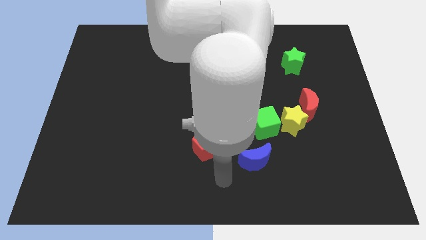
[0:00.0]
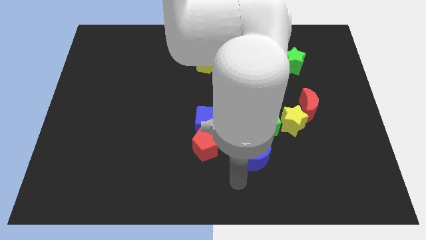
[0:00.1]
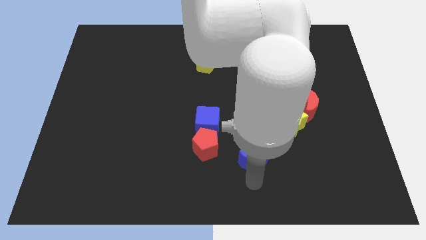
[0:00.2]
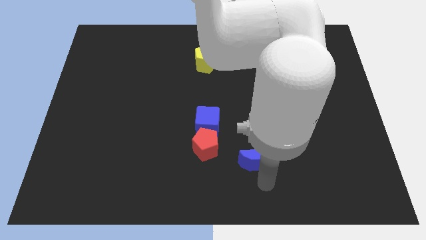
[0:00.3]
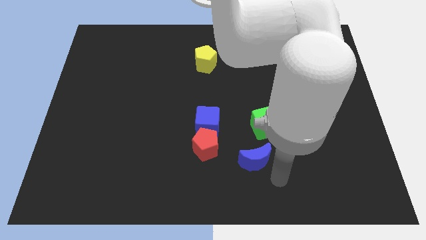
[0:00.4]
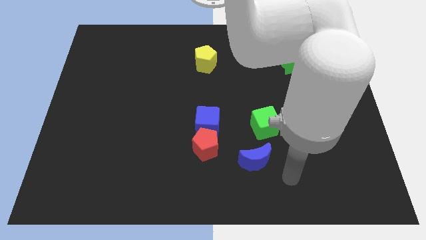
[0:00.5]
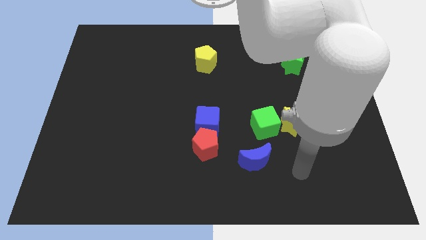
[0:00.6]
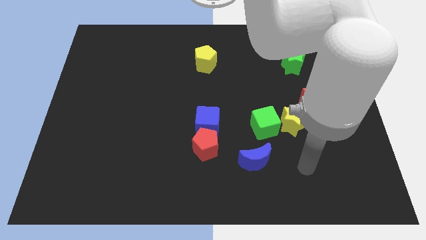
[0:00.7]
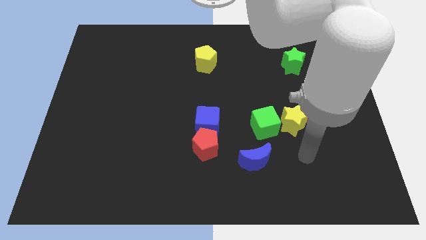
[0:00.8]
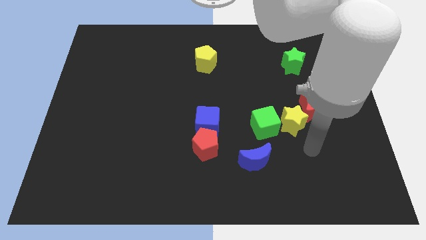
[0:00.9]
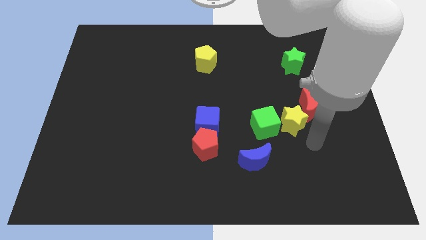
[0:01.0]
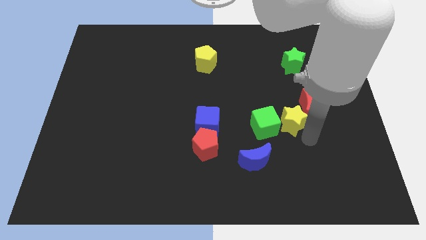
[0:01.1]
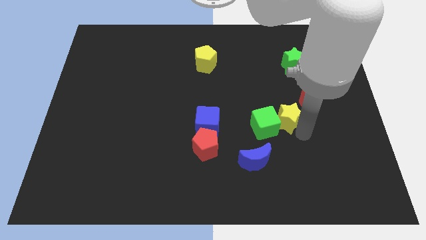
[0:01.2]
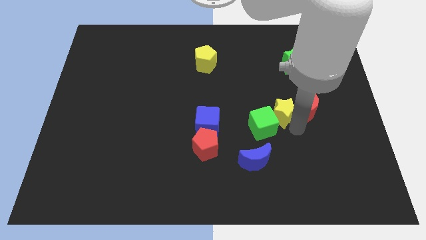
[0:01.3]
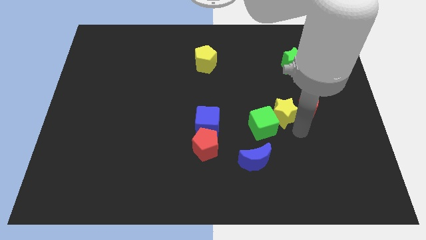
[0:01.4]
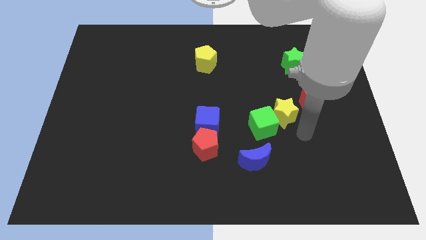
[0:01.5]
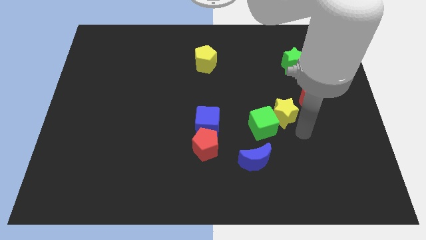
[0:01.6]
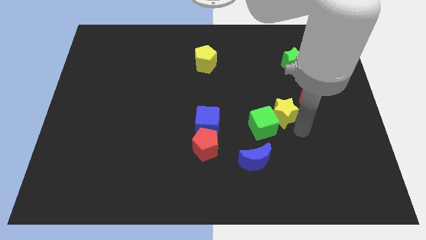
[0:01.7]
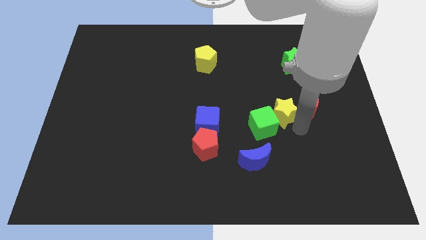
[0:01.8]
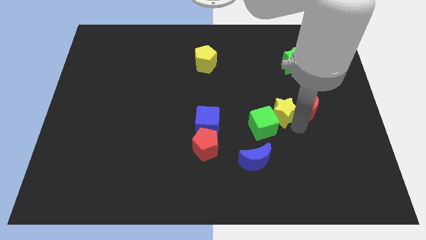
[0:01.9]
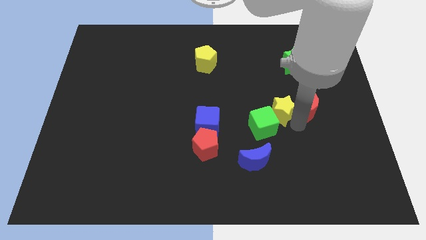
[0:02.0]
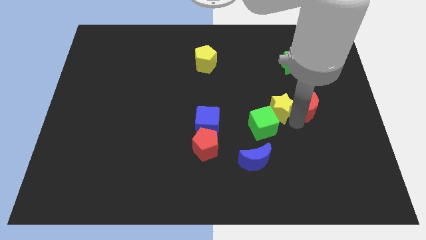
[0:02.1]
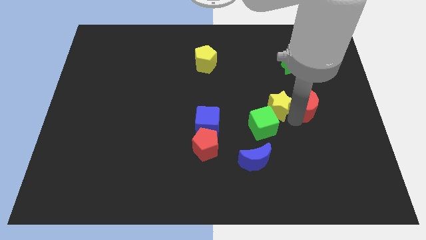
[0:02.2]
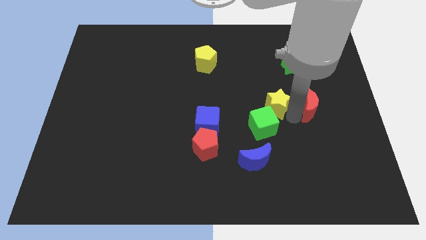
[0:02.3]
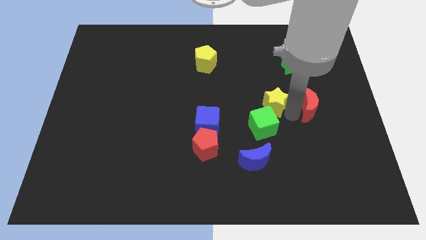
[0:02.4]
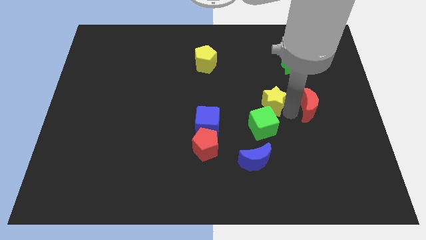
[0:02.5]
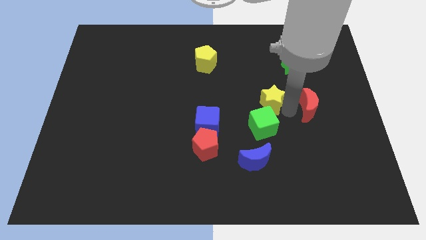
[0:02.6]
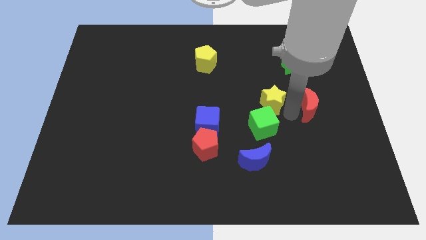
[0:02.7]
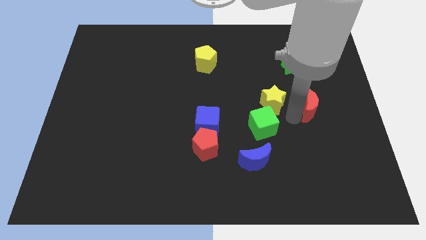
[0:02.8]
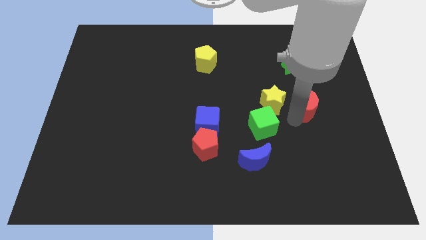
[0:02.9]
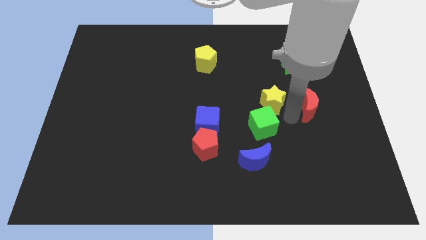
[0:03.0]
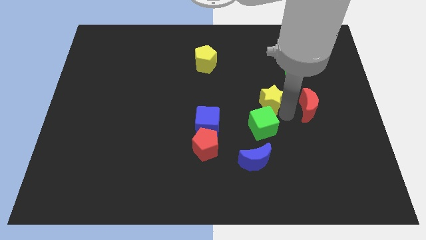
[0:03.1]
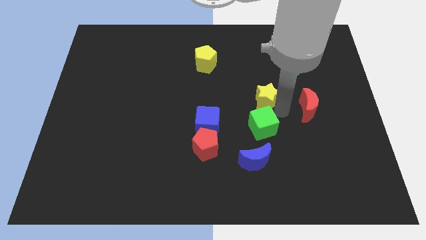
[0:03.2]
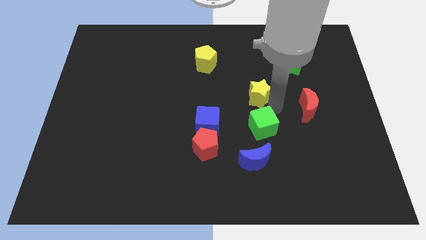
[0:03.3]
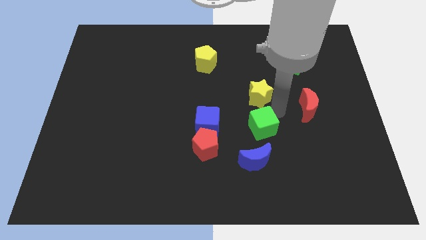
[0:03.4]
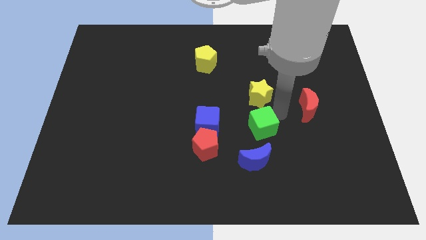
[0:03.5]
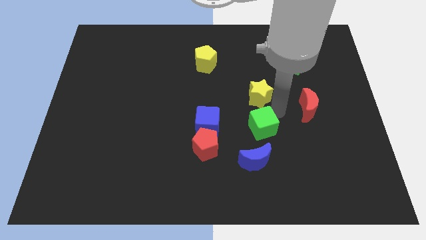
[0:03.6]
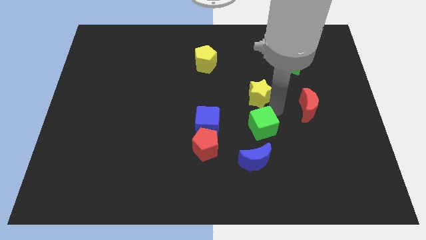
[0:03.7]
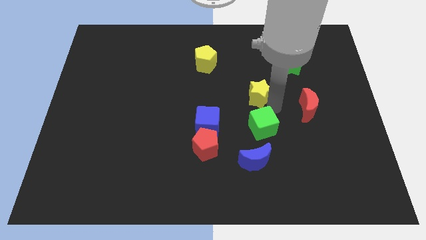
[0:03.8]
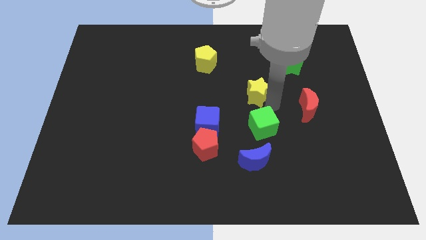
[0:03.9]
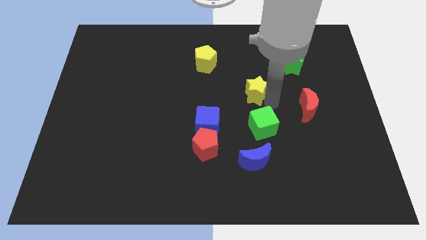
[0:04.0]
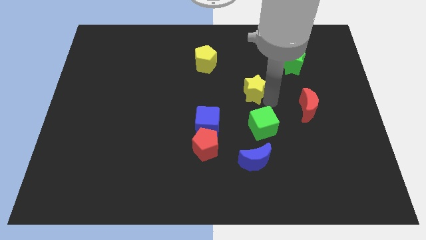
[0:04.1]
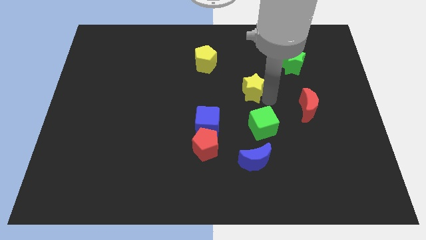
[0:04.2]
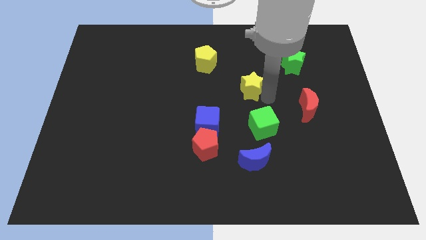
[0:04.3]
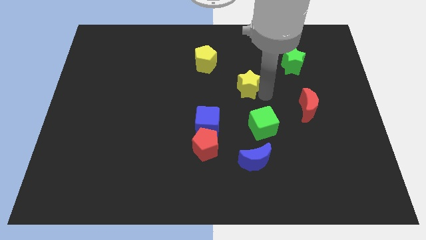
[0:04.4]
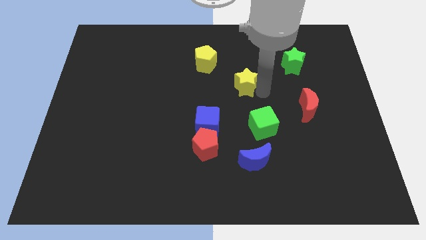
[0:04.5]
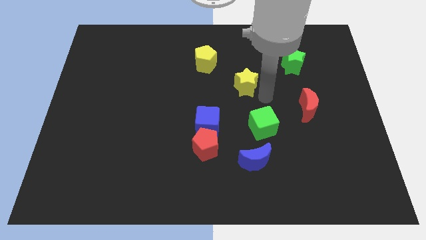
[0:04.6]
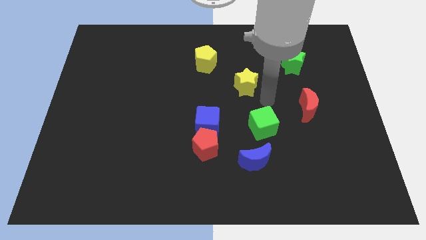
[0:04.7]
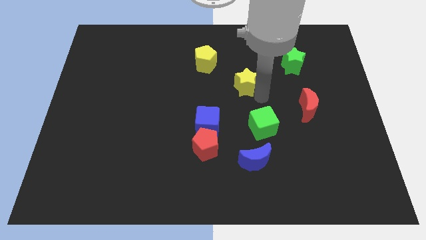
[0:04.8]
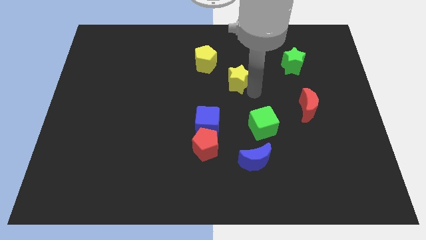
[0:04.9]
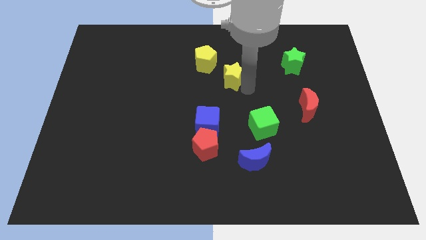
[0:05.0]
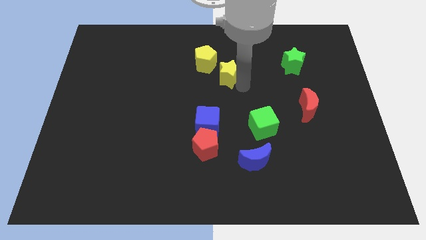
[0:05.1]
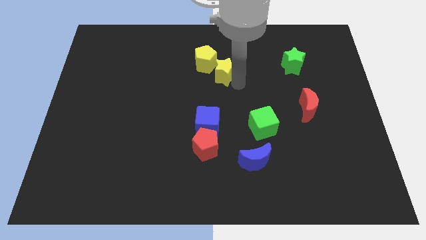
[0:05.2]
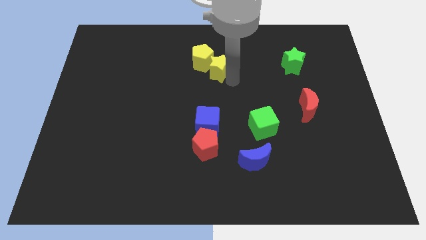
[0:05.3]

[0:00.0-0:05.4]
push the yellow star towards the yellow pentagon

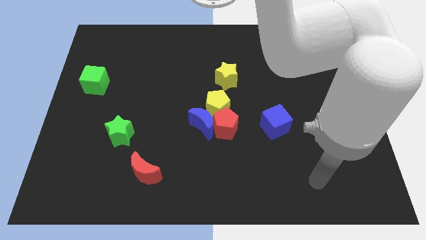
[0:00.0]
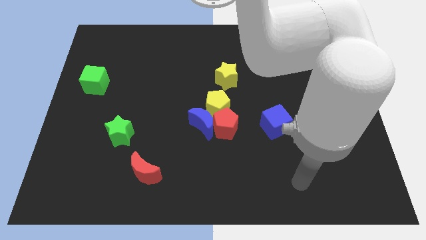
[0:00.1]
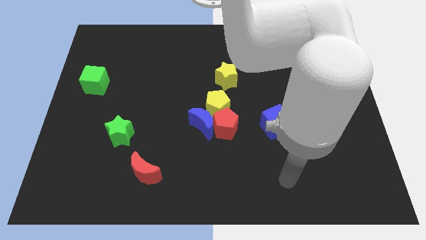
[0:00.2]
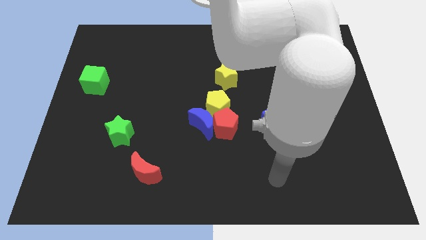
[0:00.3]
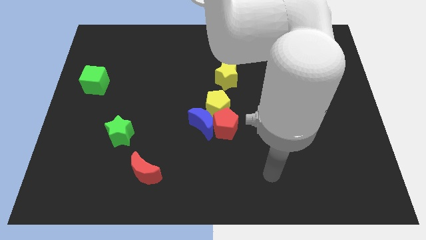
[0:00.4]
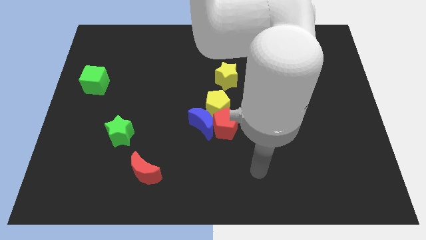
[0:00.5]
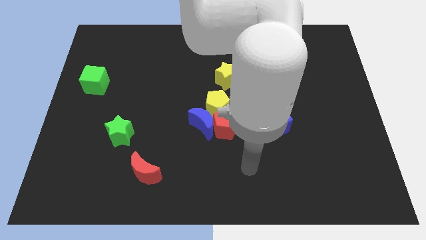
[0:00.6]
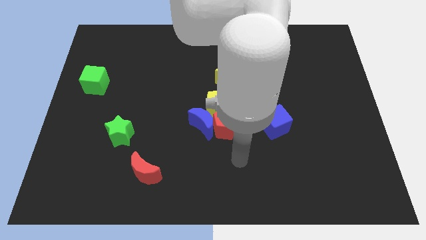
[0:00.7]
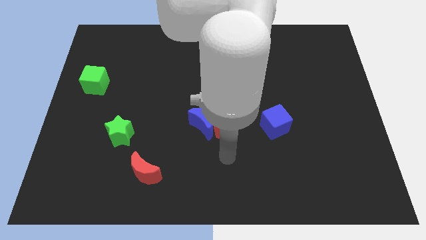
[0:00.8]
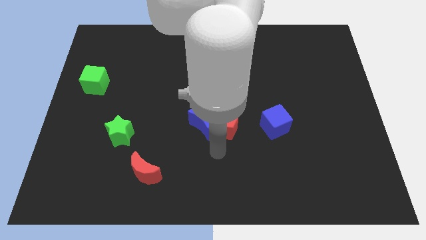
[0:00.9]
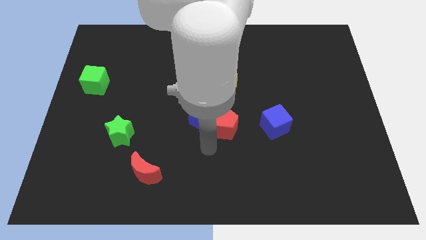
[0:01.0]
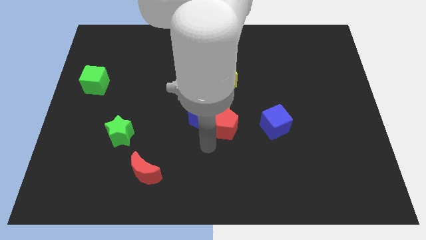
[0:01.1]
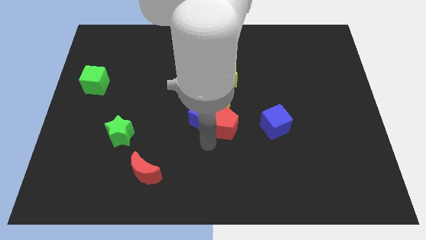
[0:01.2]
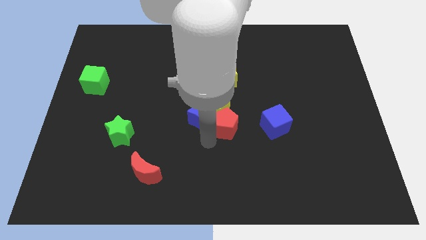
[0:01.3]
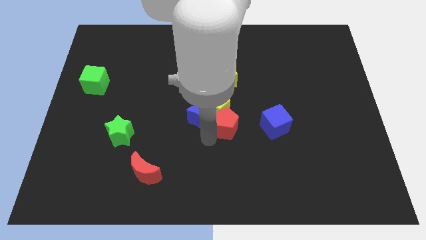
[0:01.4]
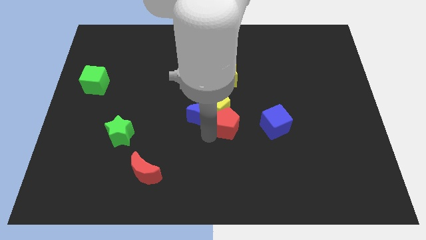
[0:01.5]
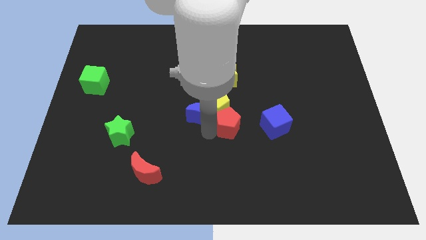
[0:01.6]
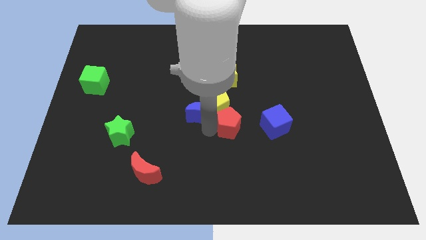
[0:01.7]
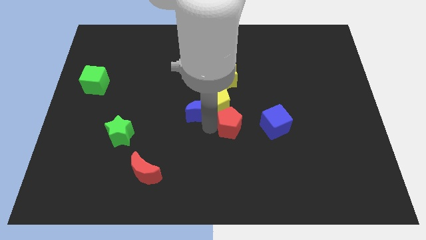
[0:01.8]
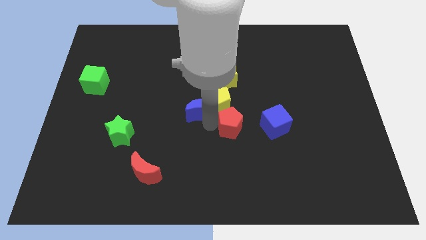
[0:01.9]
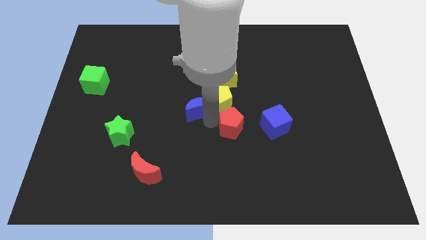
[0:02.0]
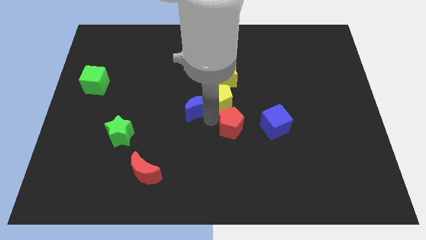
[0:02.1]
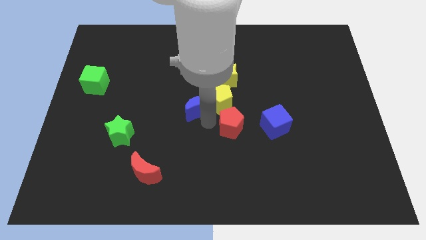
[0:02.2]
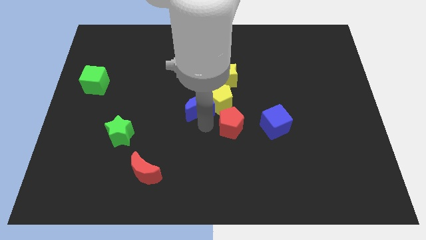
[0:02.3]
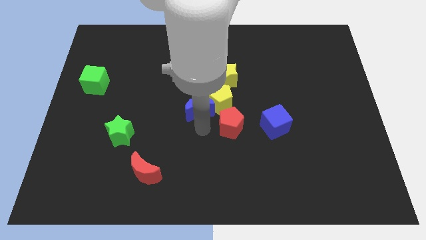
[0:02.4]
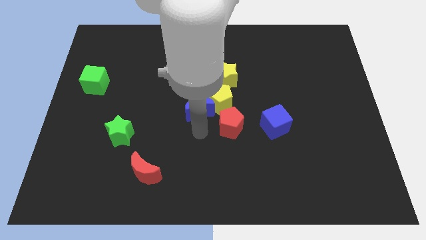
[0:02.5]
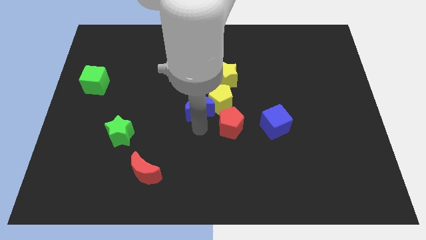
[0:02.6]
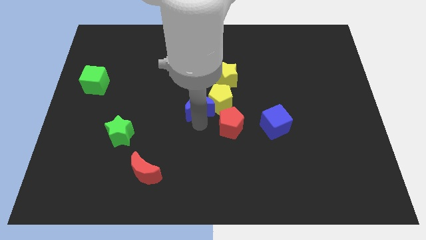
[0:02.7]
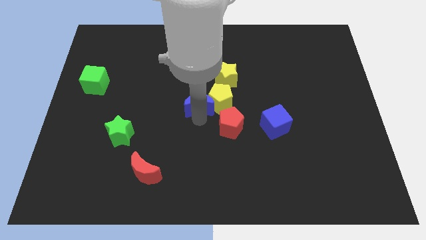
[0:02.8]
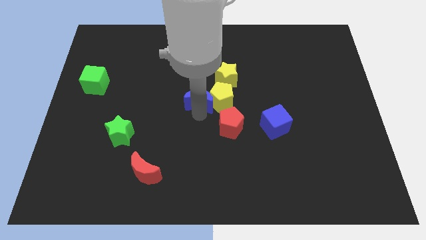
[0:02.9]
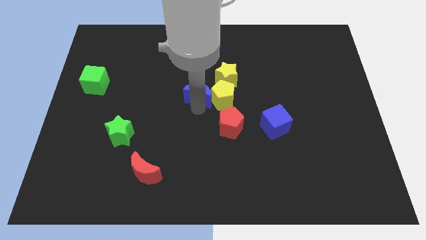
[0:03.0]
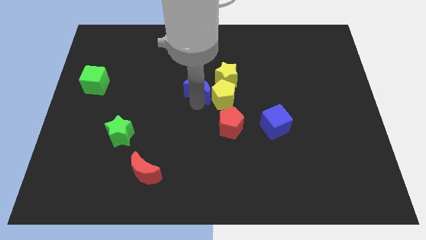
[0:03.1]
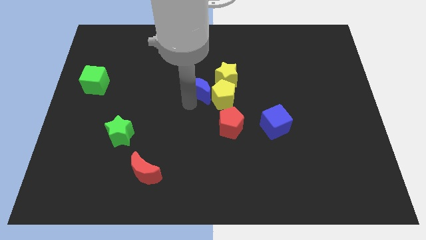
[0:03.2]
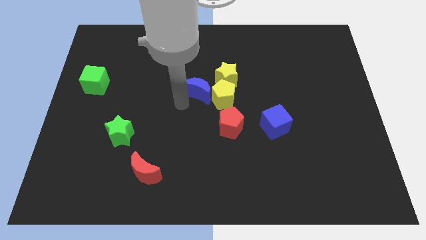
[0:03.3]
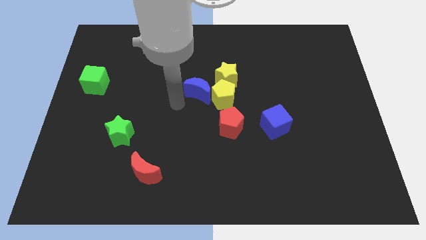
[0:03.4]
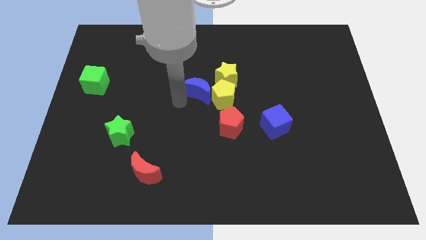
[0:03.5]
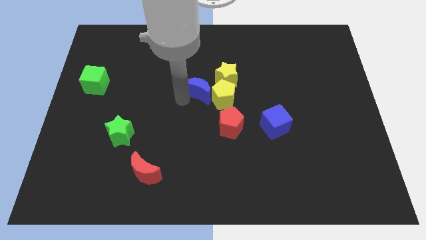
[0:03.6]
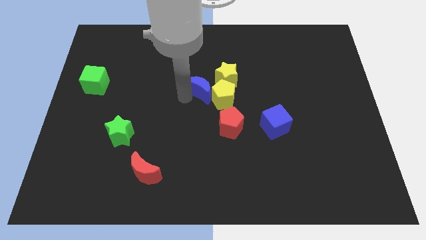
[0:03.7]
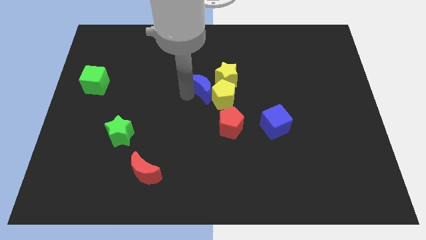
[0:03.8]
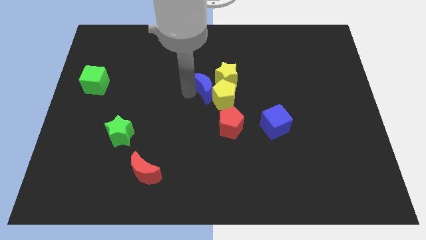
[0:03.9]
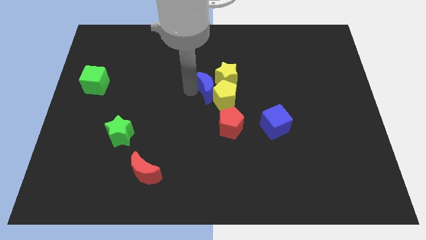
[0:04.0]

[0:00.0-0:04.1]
move the blue moon next to the yellow star
